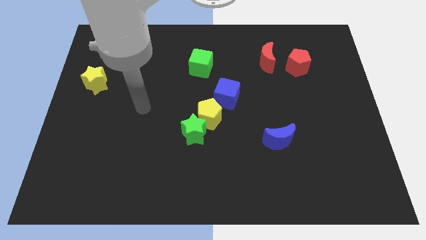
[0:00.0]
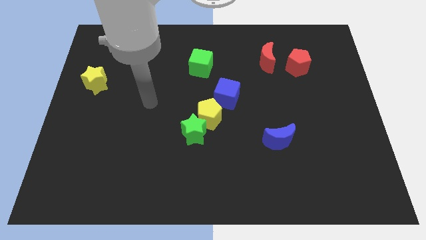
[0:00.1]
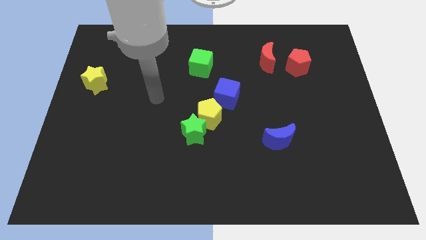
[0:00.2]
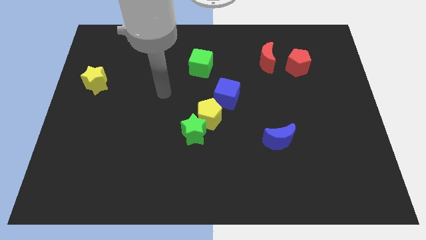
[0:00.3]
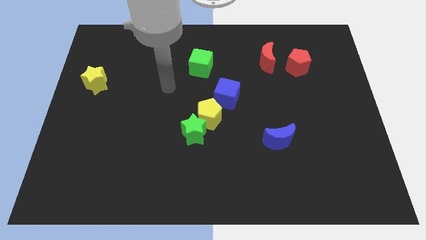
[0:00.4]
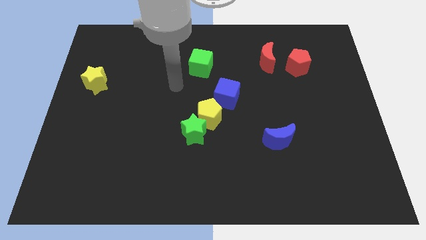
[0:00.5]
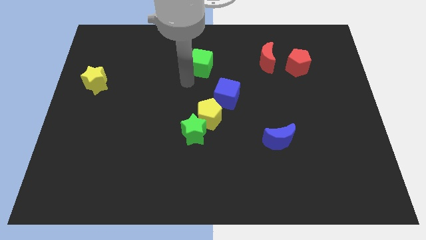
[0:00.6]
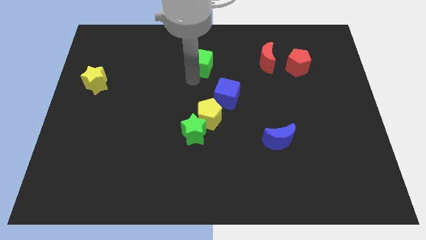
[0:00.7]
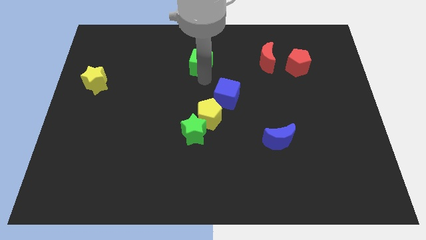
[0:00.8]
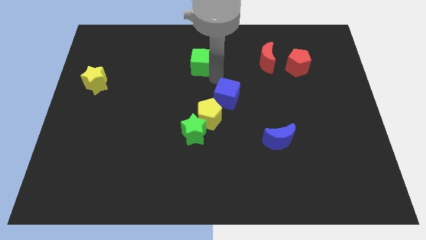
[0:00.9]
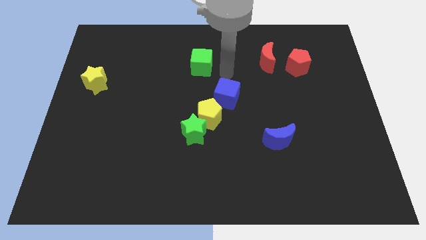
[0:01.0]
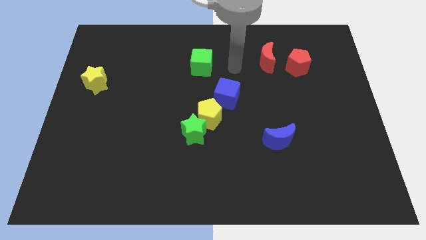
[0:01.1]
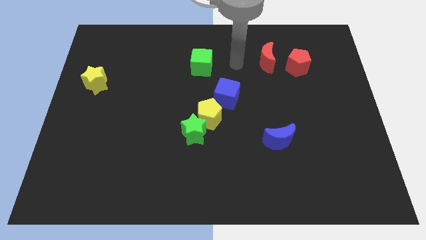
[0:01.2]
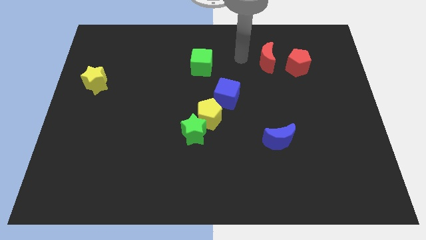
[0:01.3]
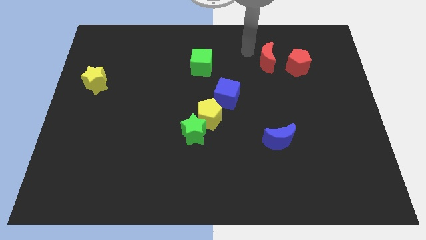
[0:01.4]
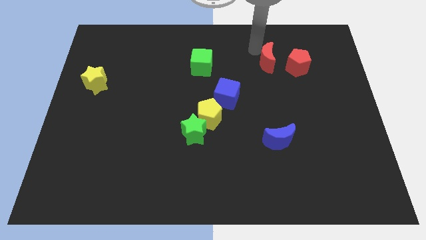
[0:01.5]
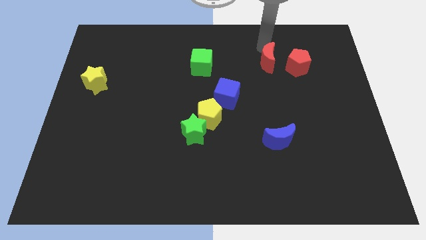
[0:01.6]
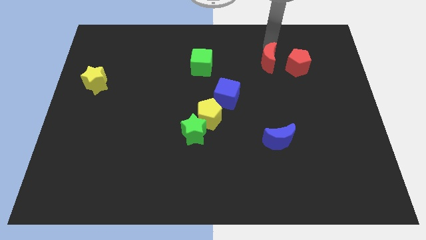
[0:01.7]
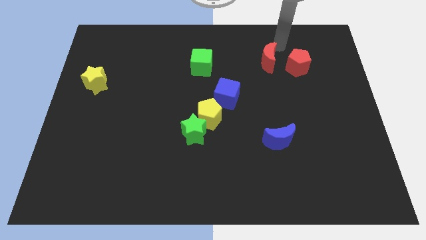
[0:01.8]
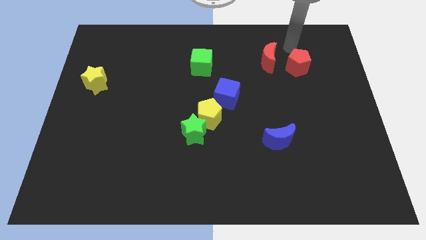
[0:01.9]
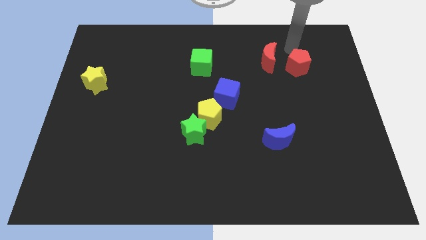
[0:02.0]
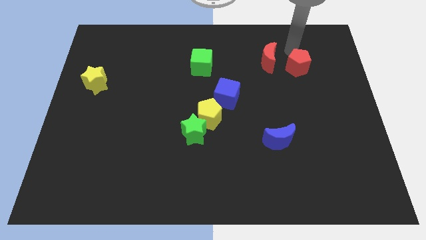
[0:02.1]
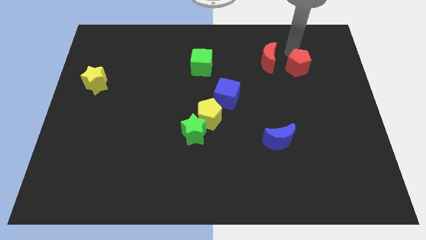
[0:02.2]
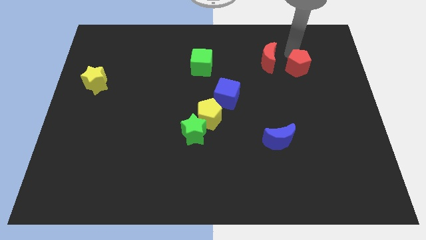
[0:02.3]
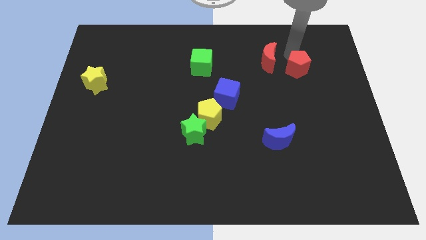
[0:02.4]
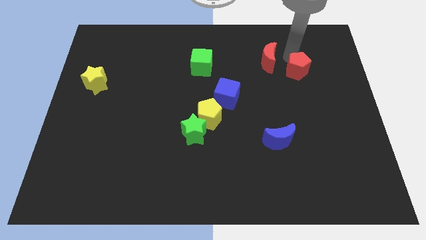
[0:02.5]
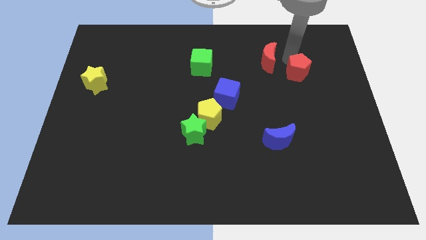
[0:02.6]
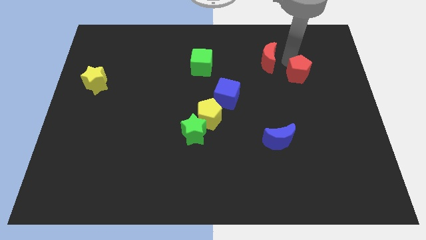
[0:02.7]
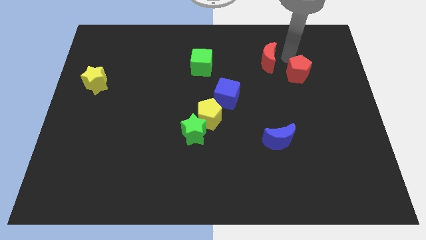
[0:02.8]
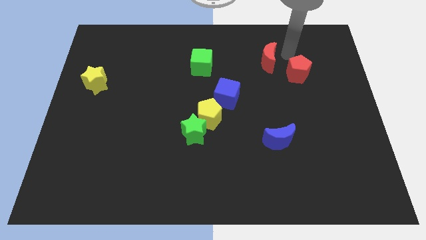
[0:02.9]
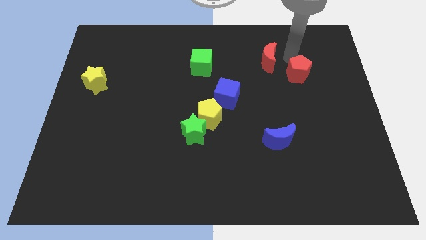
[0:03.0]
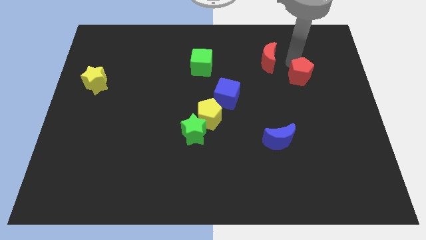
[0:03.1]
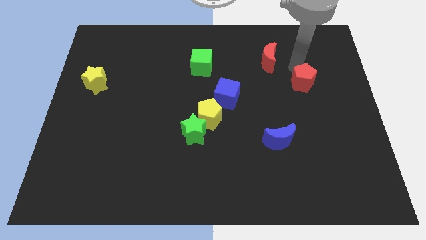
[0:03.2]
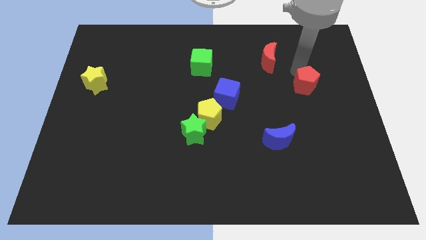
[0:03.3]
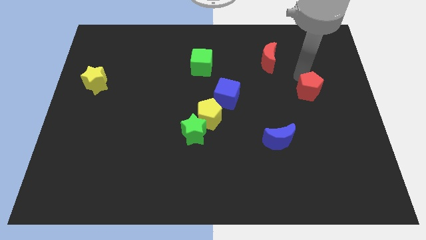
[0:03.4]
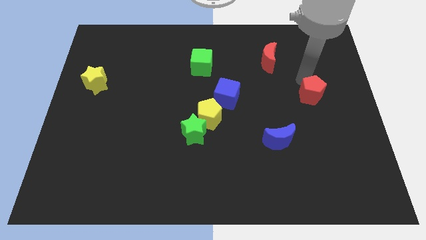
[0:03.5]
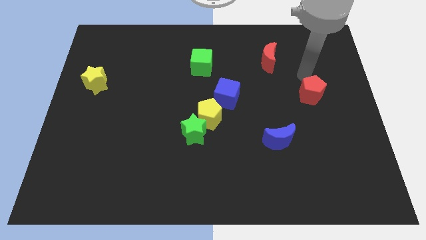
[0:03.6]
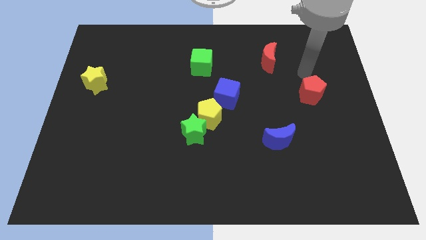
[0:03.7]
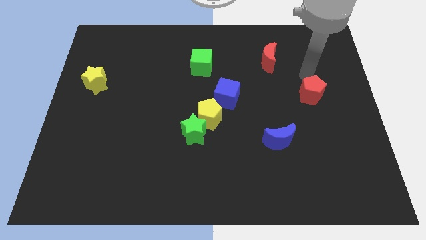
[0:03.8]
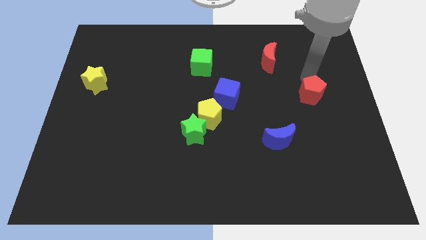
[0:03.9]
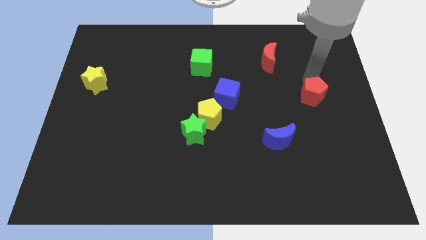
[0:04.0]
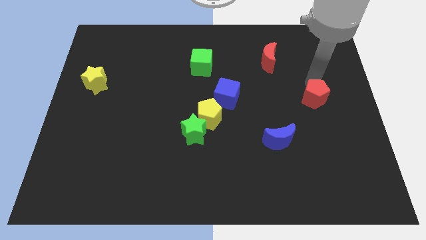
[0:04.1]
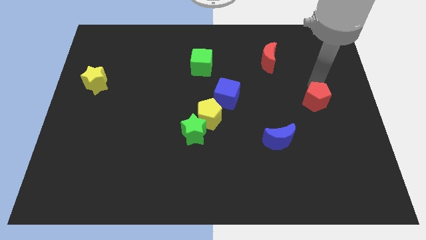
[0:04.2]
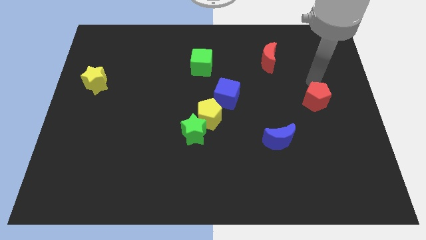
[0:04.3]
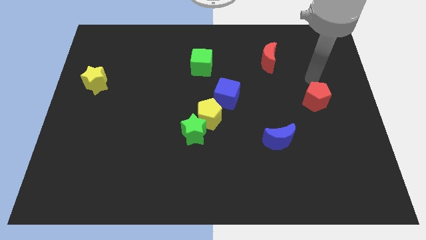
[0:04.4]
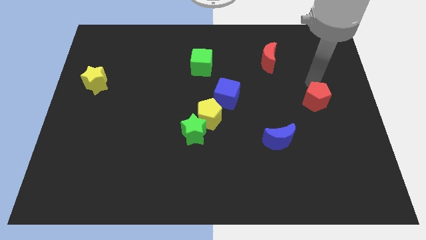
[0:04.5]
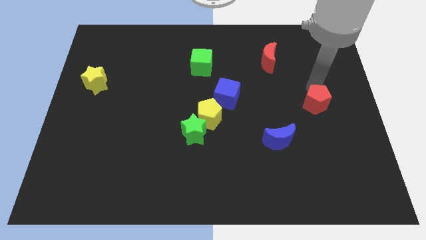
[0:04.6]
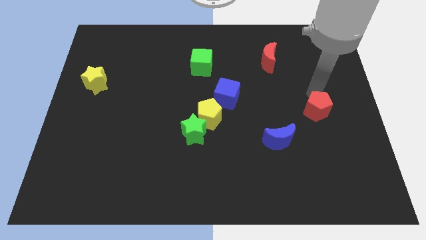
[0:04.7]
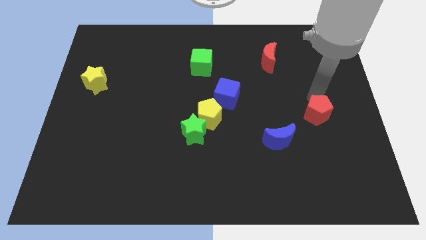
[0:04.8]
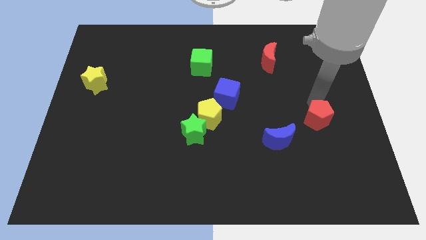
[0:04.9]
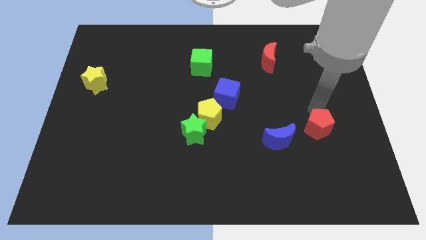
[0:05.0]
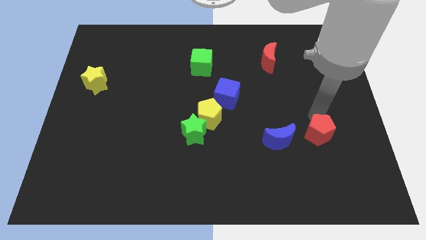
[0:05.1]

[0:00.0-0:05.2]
push the red pentagon down

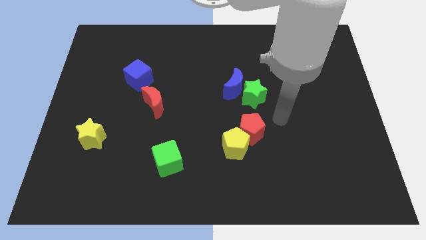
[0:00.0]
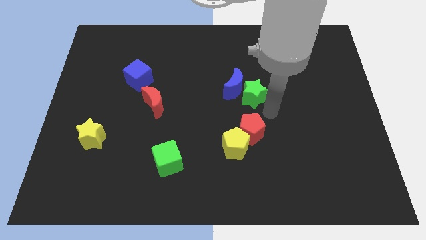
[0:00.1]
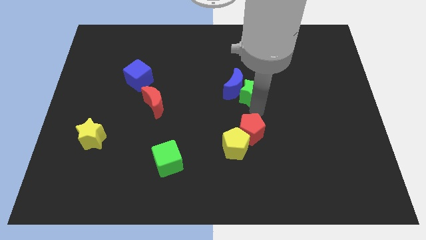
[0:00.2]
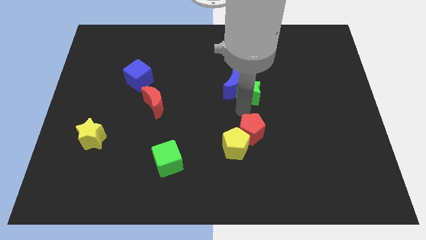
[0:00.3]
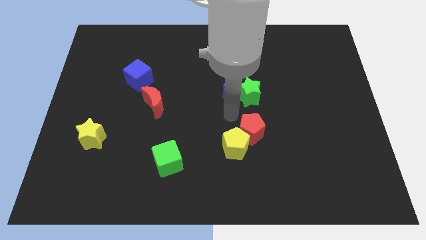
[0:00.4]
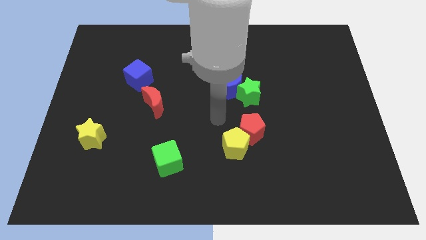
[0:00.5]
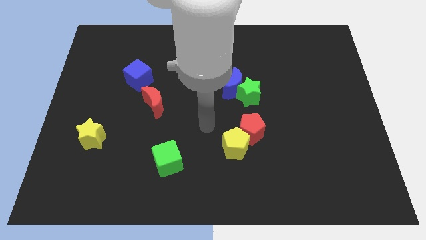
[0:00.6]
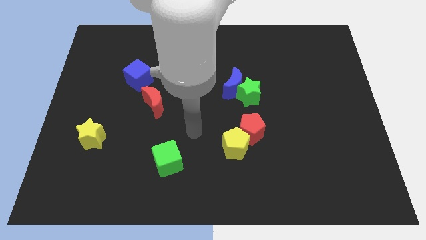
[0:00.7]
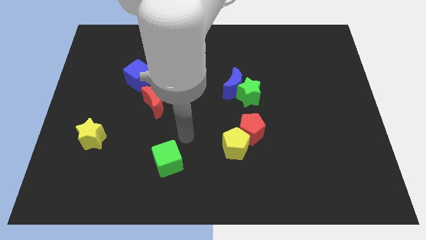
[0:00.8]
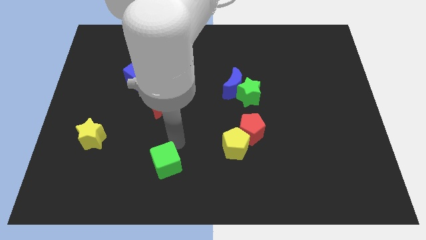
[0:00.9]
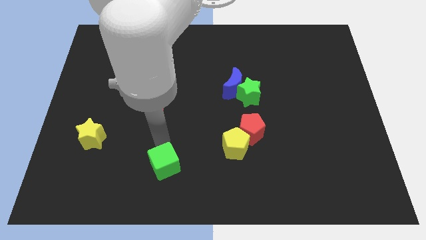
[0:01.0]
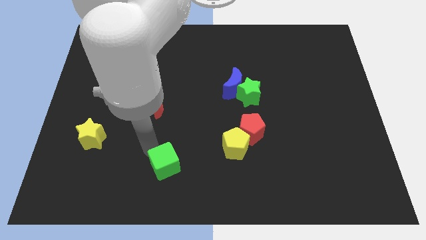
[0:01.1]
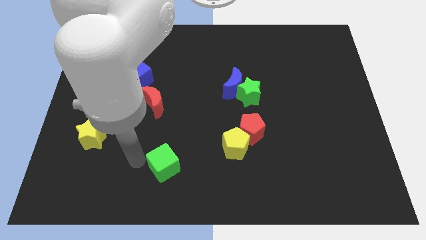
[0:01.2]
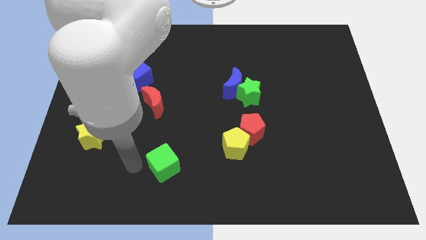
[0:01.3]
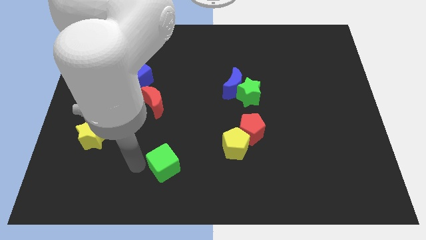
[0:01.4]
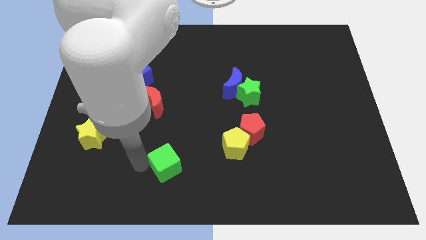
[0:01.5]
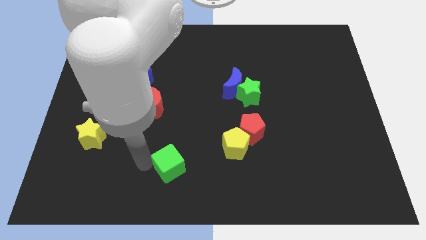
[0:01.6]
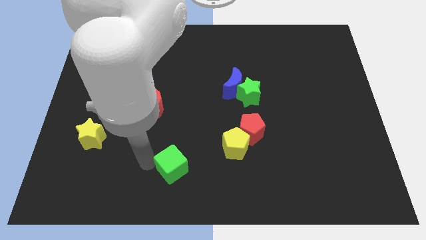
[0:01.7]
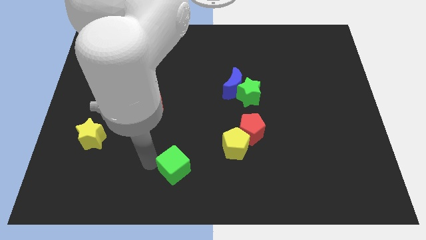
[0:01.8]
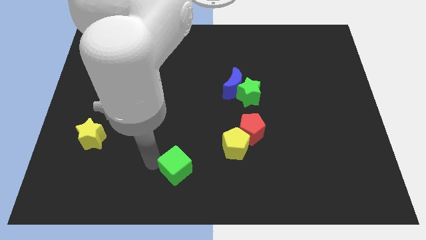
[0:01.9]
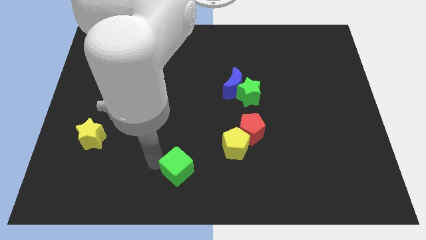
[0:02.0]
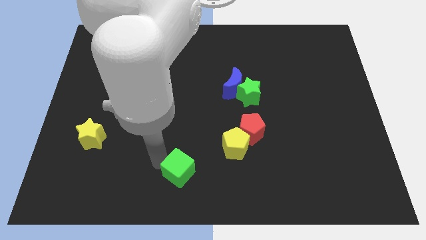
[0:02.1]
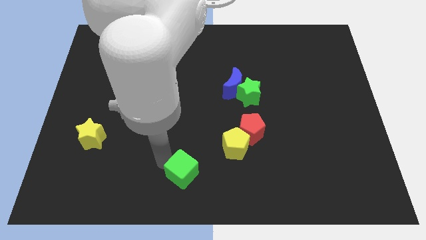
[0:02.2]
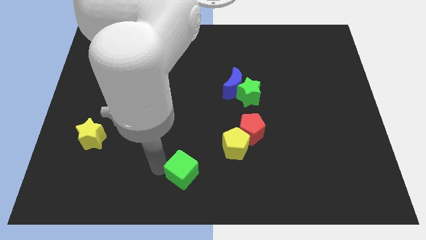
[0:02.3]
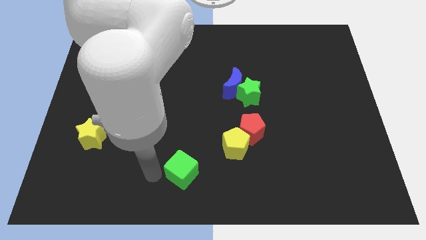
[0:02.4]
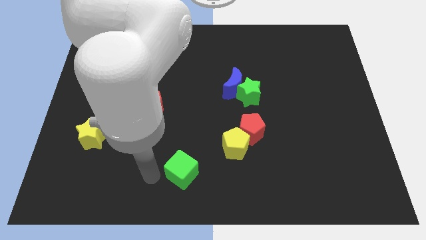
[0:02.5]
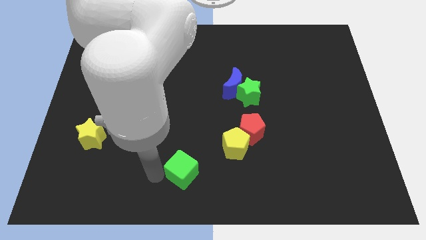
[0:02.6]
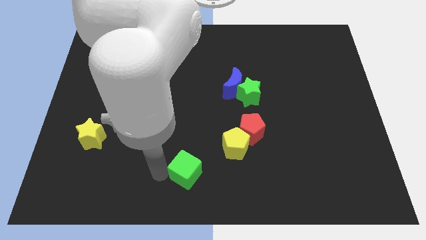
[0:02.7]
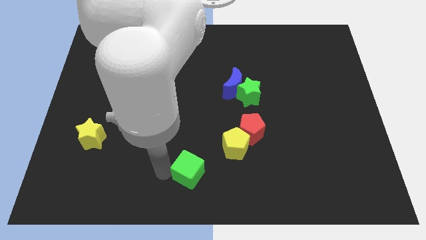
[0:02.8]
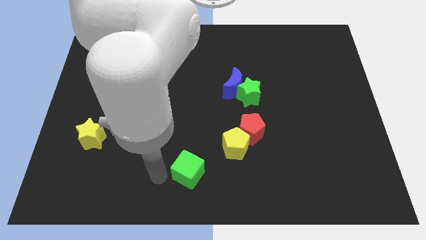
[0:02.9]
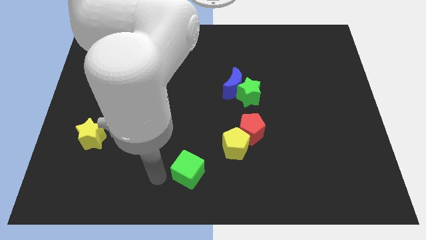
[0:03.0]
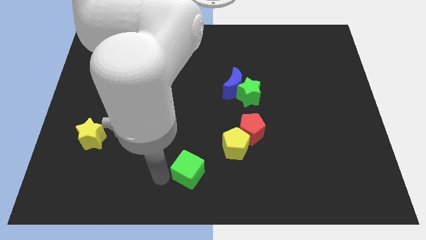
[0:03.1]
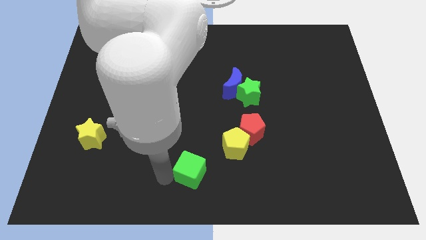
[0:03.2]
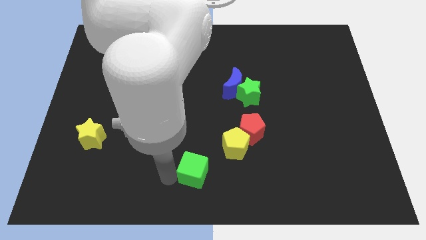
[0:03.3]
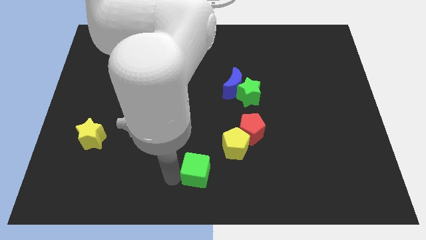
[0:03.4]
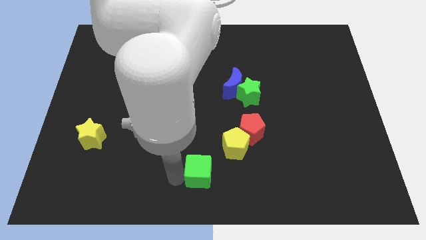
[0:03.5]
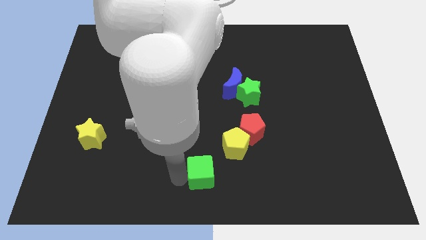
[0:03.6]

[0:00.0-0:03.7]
slightly slide the green cube to the right
